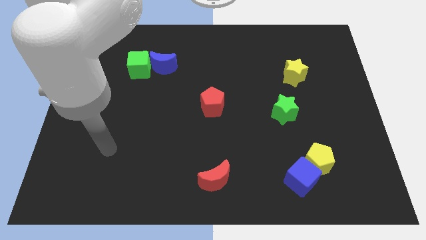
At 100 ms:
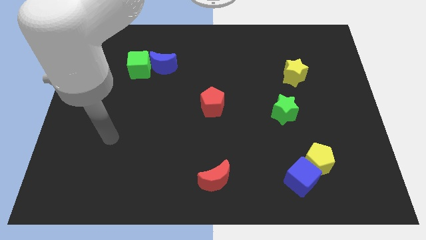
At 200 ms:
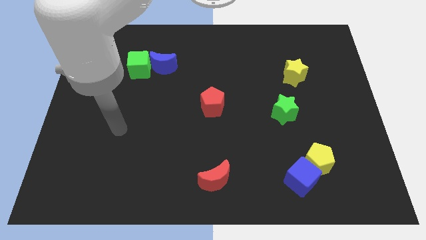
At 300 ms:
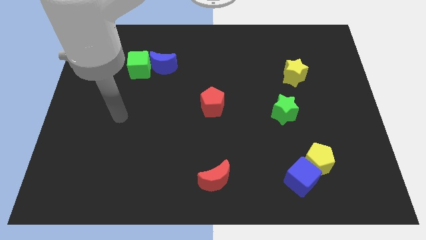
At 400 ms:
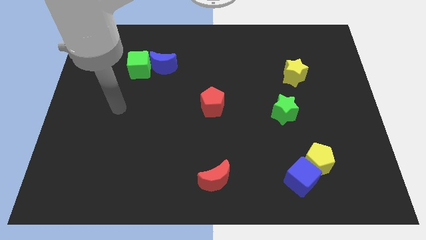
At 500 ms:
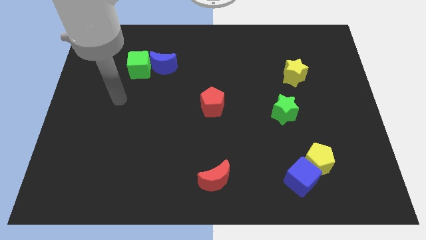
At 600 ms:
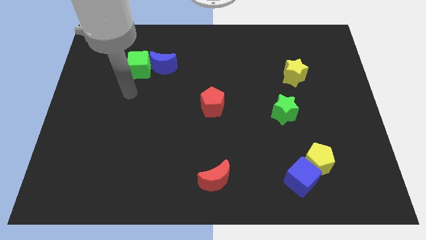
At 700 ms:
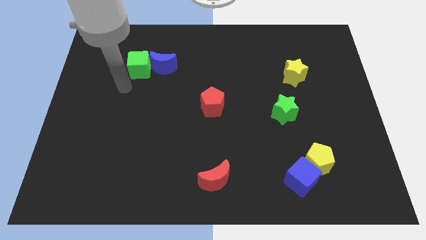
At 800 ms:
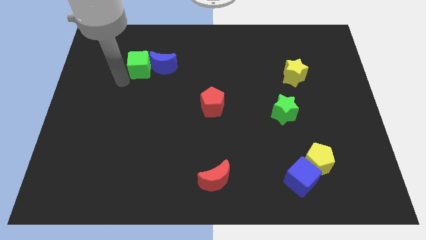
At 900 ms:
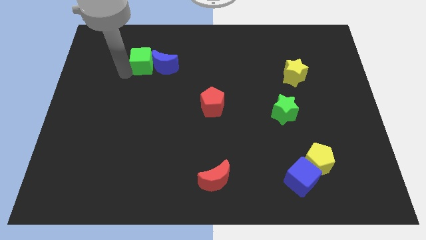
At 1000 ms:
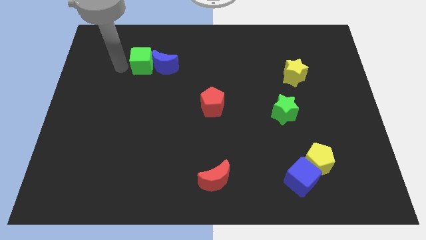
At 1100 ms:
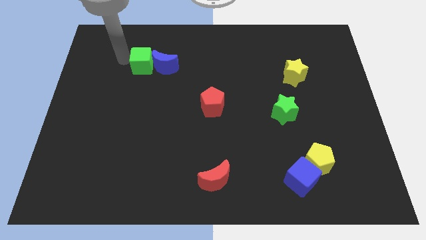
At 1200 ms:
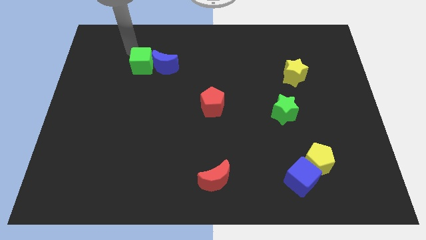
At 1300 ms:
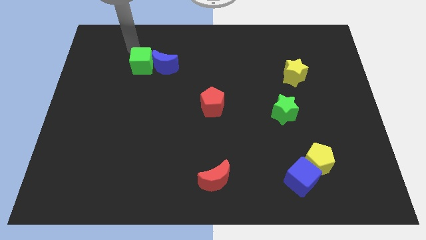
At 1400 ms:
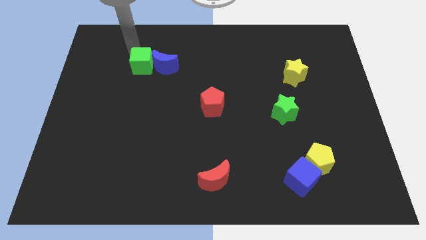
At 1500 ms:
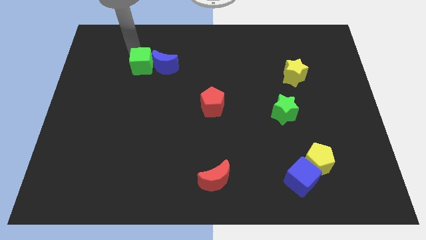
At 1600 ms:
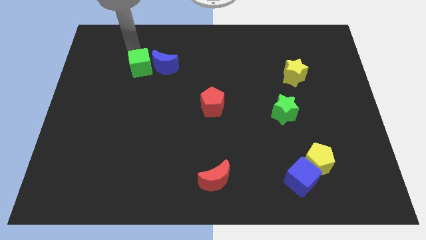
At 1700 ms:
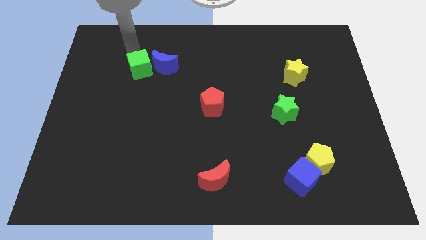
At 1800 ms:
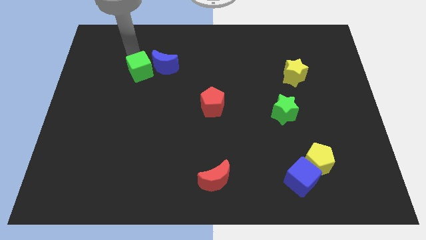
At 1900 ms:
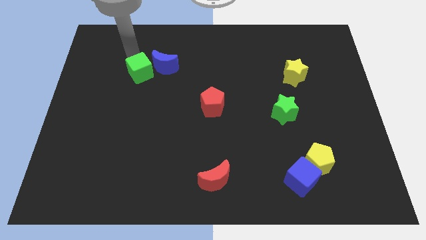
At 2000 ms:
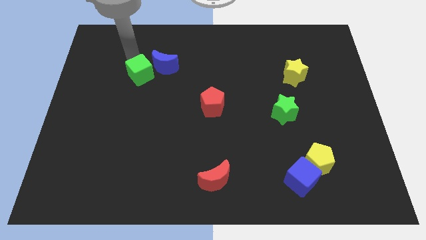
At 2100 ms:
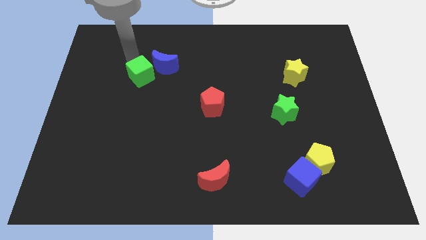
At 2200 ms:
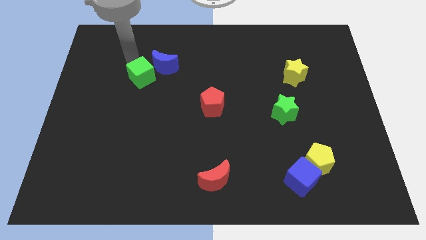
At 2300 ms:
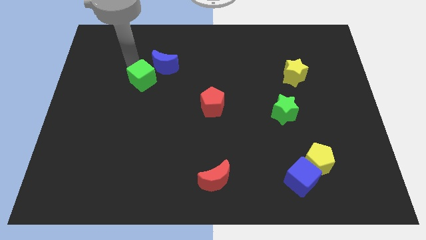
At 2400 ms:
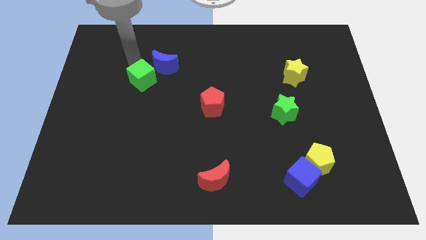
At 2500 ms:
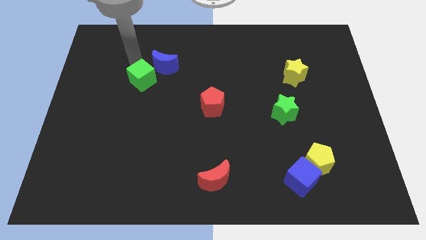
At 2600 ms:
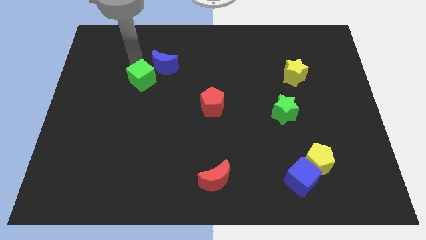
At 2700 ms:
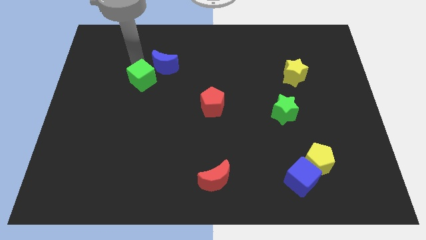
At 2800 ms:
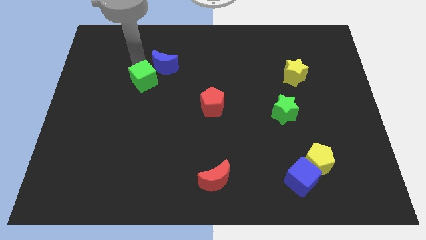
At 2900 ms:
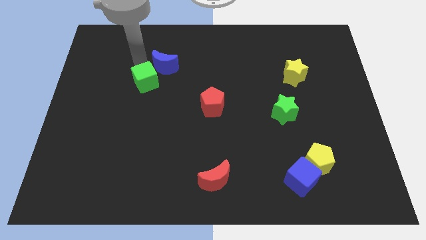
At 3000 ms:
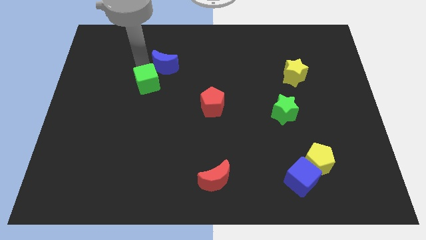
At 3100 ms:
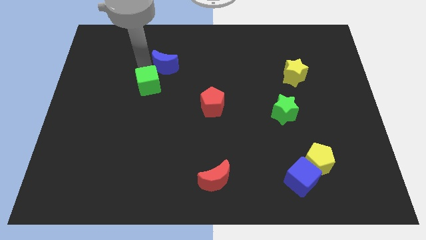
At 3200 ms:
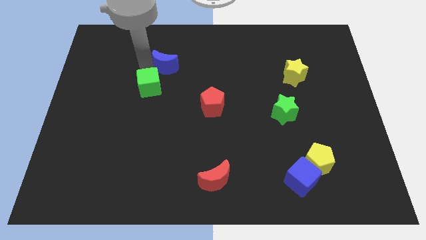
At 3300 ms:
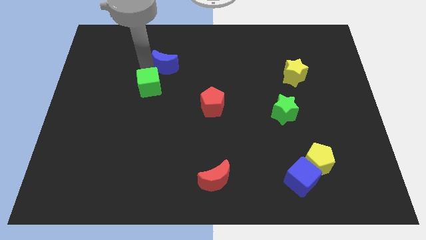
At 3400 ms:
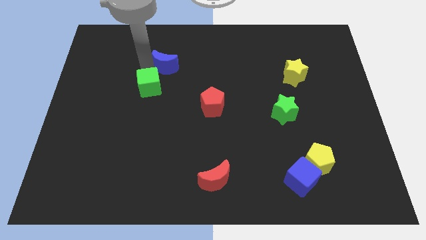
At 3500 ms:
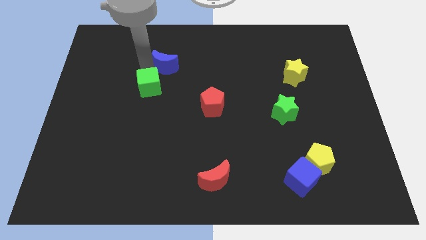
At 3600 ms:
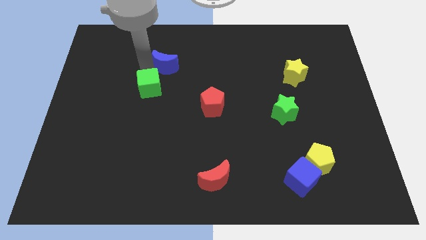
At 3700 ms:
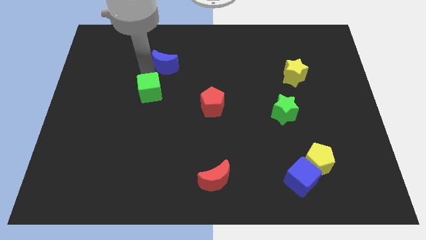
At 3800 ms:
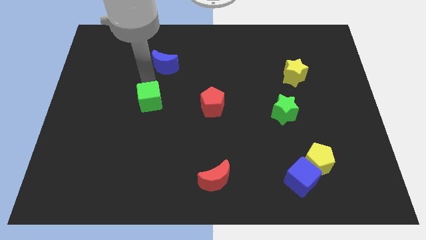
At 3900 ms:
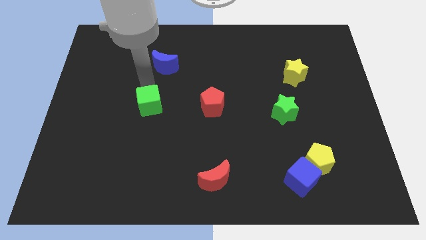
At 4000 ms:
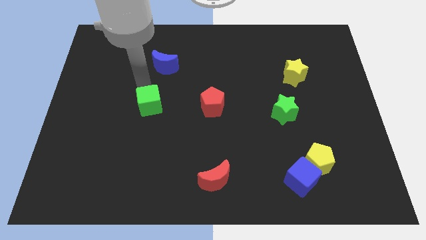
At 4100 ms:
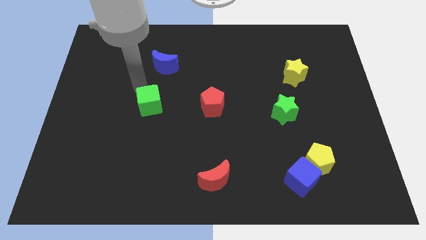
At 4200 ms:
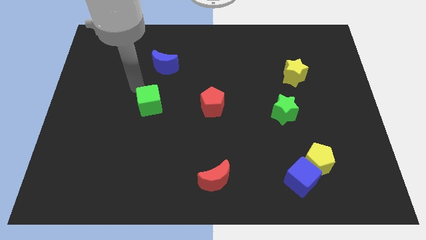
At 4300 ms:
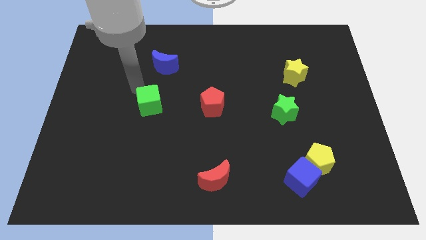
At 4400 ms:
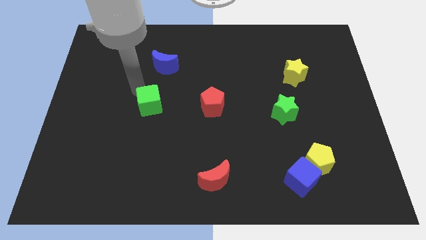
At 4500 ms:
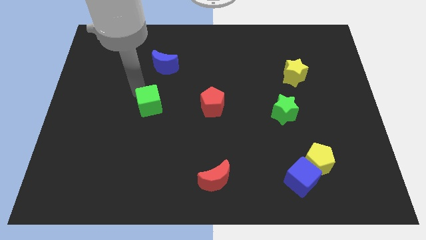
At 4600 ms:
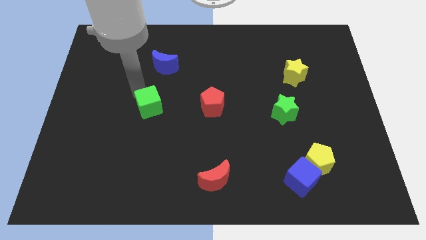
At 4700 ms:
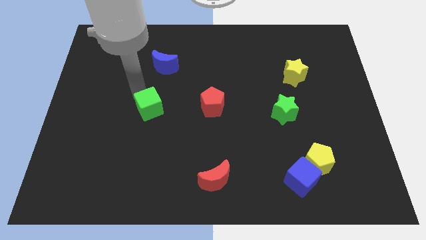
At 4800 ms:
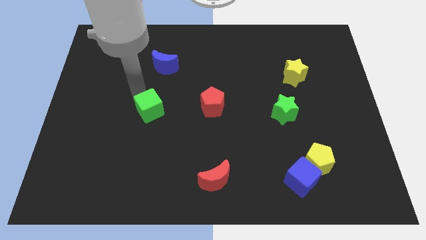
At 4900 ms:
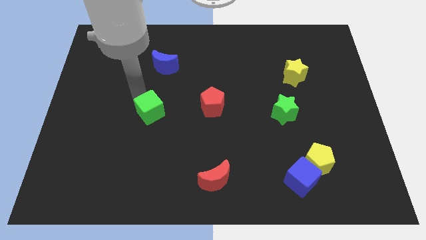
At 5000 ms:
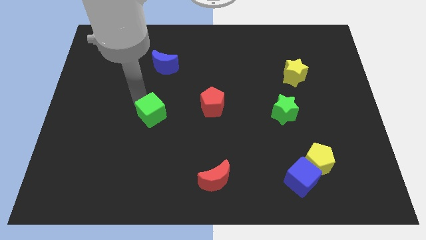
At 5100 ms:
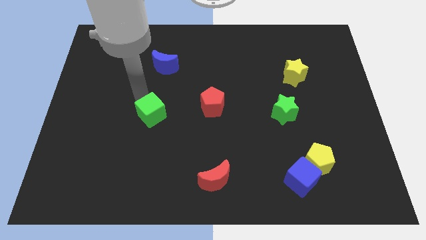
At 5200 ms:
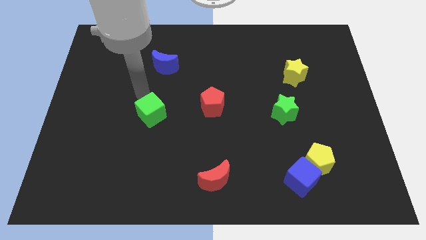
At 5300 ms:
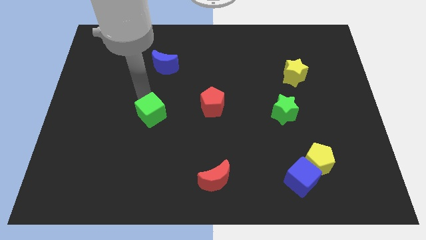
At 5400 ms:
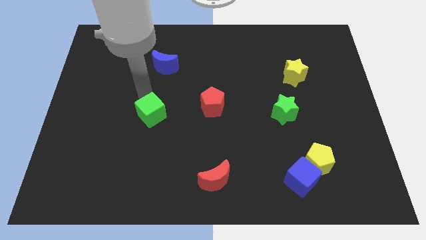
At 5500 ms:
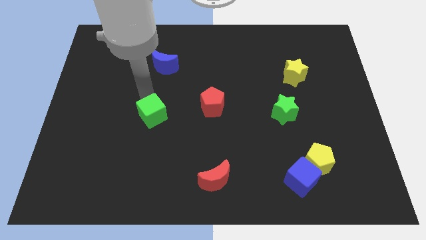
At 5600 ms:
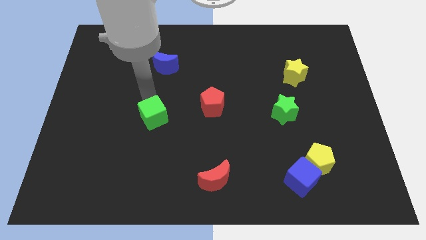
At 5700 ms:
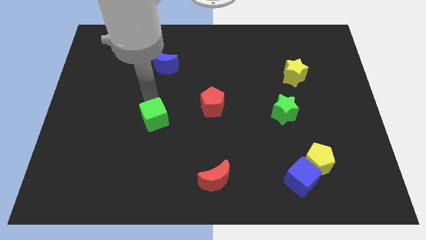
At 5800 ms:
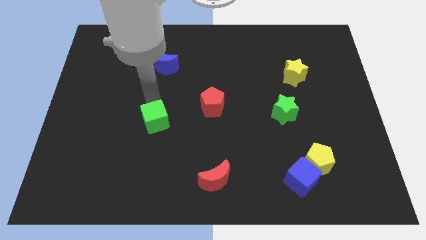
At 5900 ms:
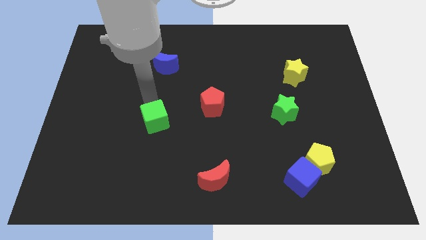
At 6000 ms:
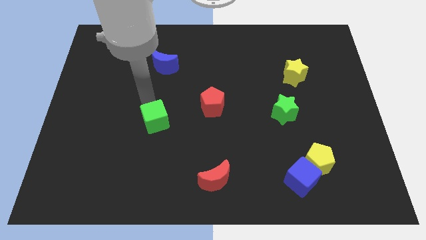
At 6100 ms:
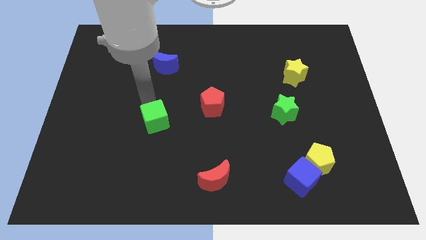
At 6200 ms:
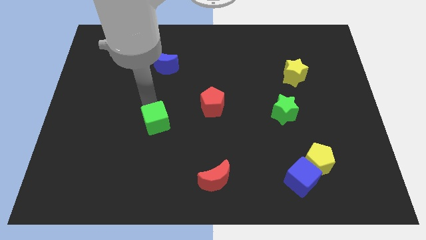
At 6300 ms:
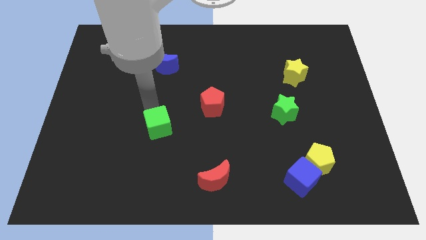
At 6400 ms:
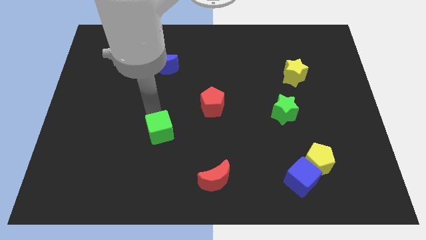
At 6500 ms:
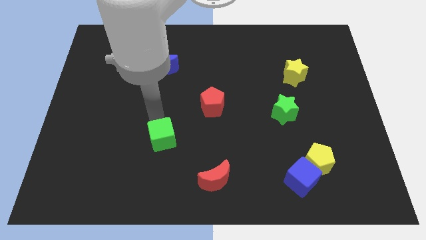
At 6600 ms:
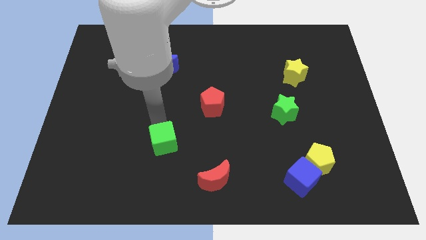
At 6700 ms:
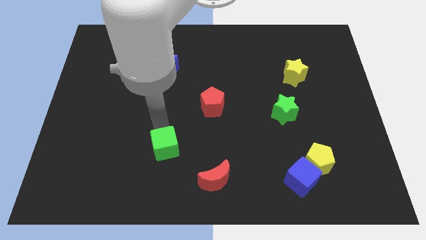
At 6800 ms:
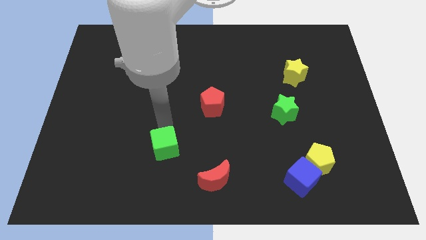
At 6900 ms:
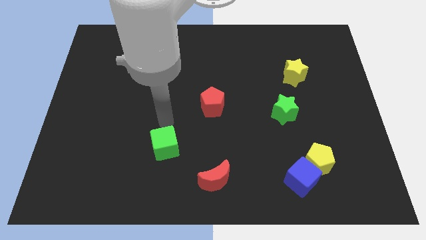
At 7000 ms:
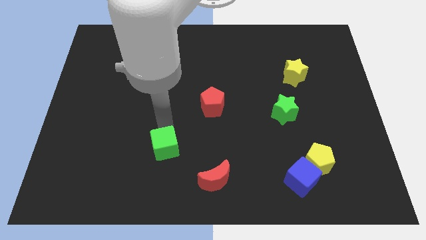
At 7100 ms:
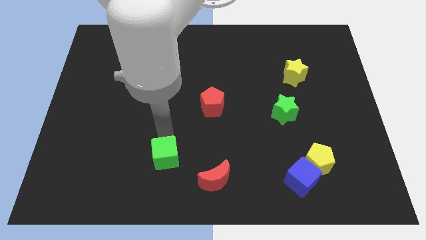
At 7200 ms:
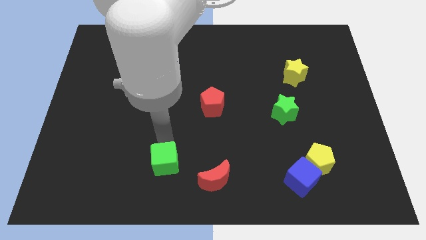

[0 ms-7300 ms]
put the green cube just left of the red moon
